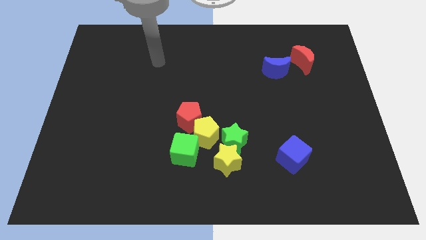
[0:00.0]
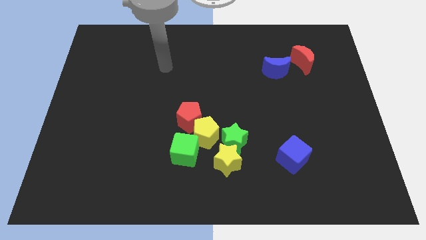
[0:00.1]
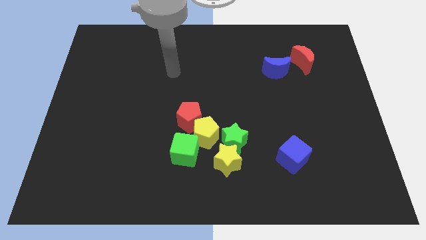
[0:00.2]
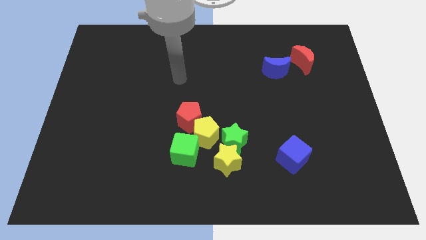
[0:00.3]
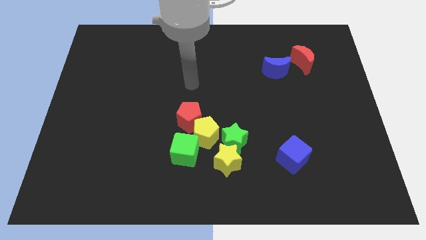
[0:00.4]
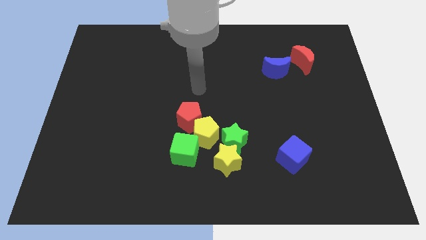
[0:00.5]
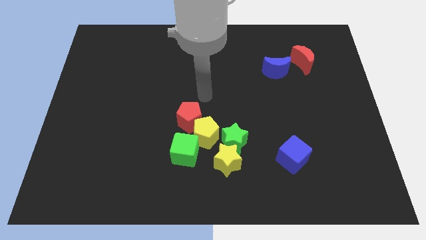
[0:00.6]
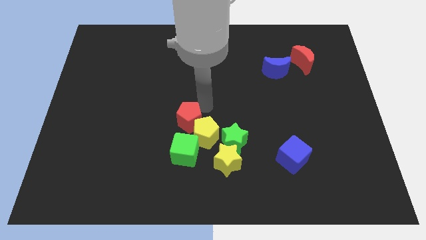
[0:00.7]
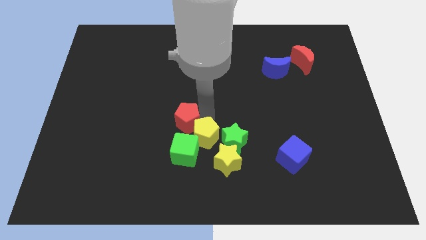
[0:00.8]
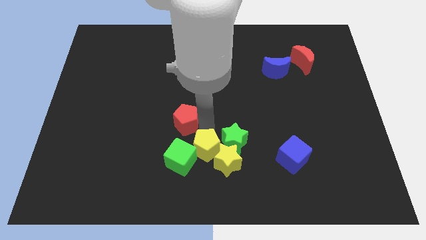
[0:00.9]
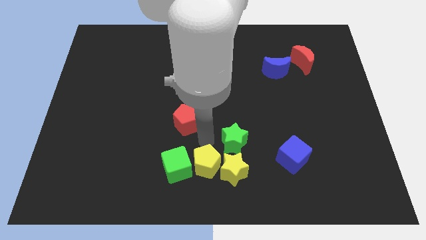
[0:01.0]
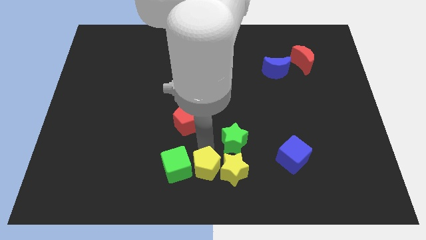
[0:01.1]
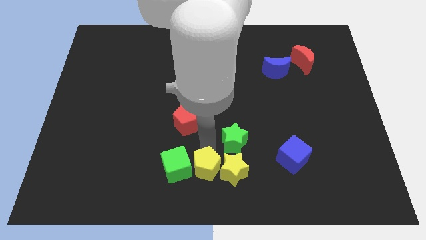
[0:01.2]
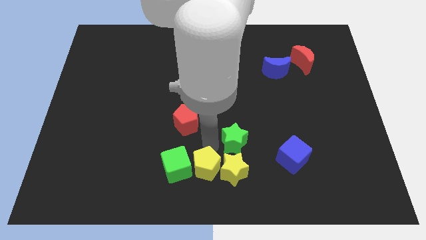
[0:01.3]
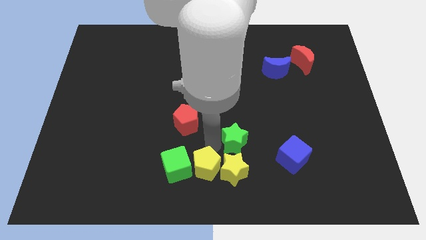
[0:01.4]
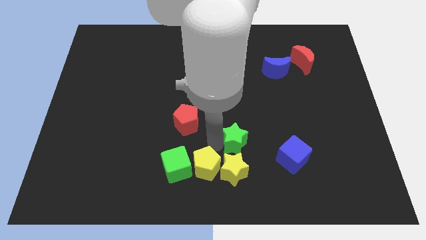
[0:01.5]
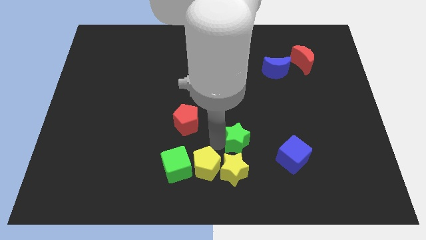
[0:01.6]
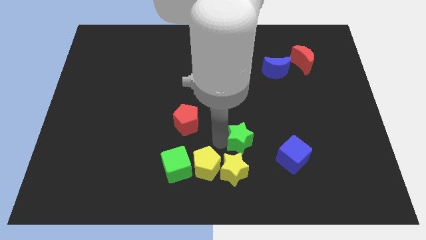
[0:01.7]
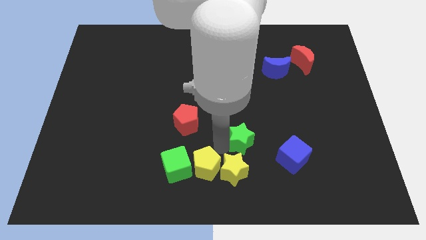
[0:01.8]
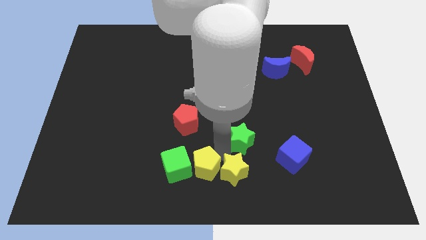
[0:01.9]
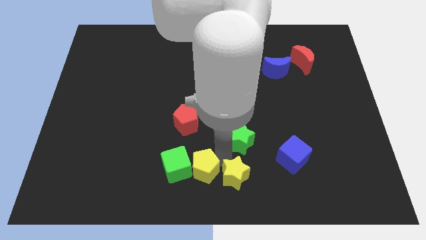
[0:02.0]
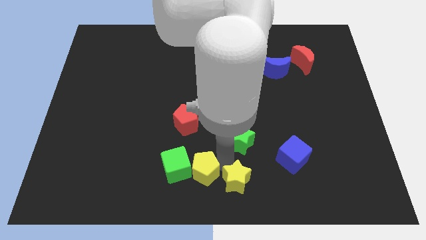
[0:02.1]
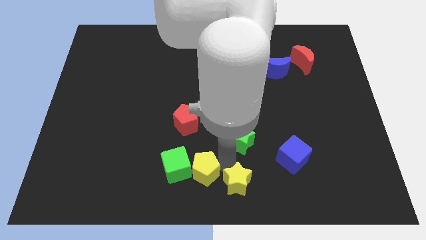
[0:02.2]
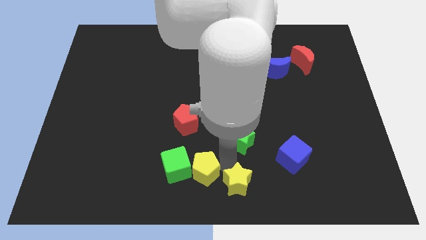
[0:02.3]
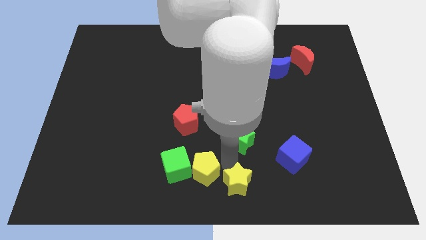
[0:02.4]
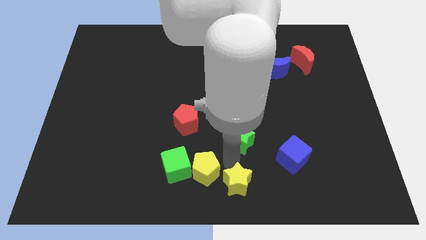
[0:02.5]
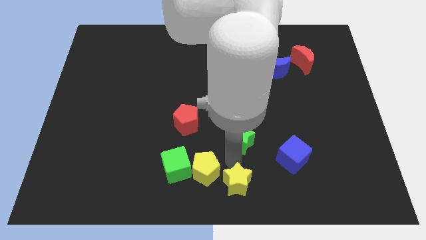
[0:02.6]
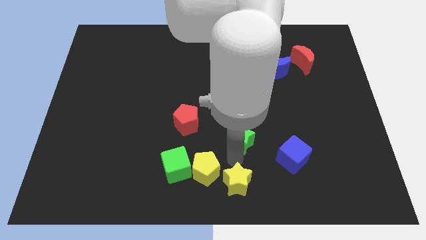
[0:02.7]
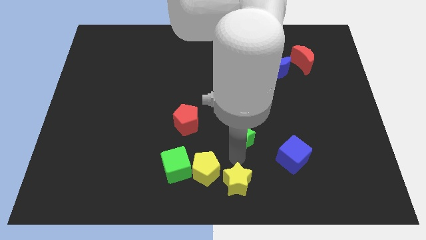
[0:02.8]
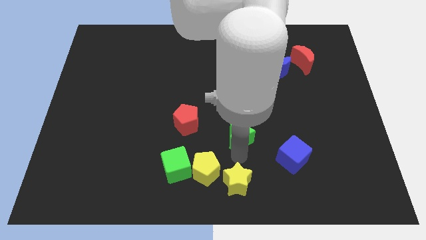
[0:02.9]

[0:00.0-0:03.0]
move the green star away from the yellow star and yellow pentagon

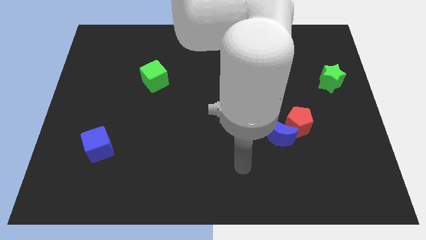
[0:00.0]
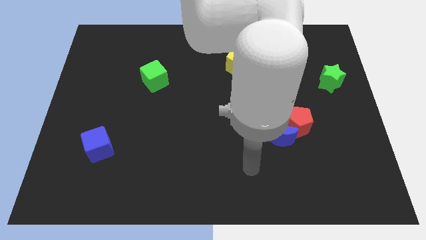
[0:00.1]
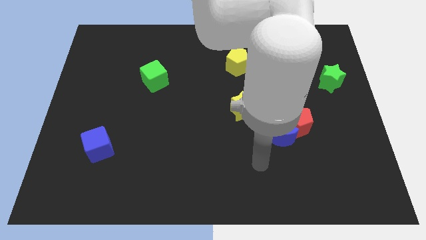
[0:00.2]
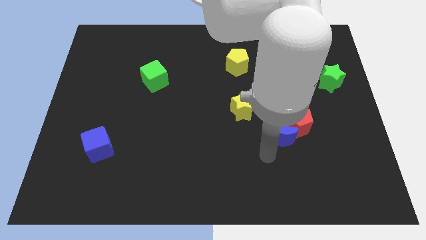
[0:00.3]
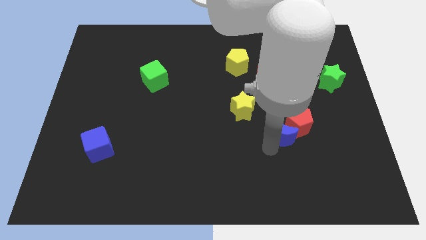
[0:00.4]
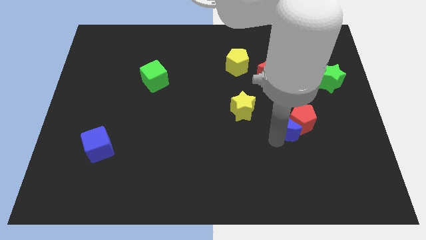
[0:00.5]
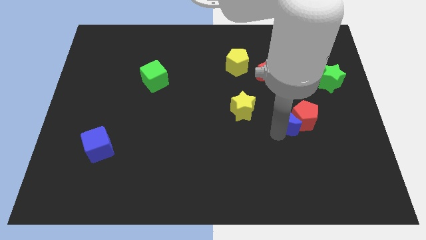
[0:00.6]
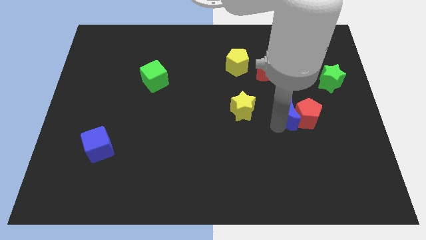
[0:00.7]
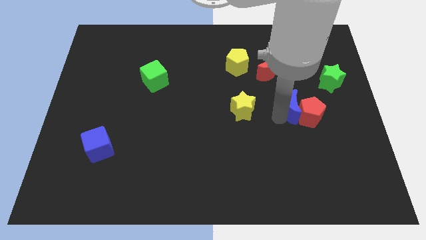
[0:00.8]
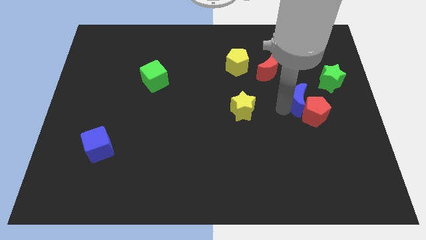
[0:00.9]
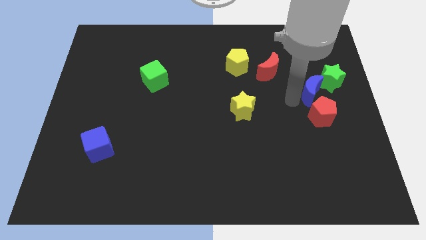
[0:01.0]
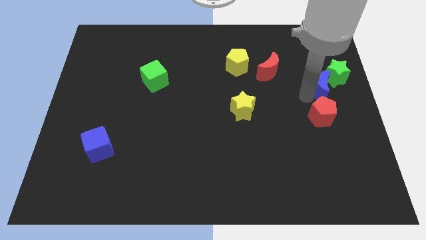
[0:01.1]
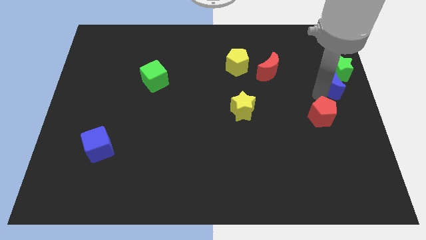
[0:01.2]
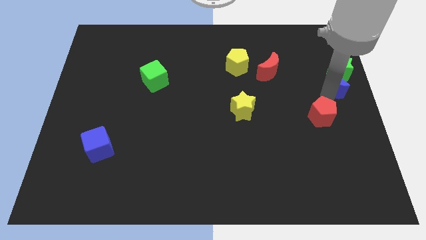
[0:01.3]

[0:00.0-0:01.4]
pull the red pentagon apart from the blue moon

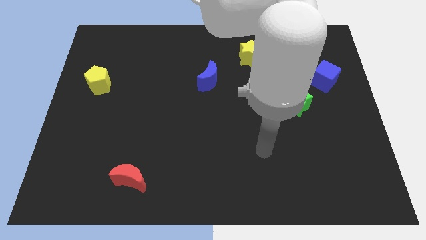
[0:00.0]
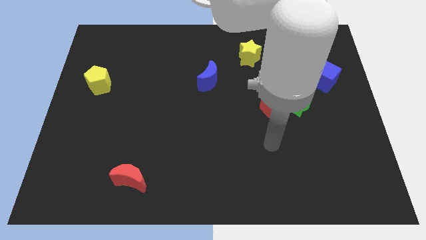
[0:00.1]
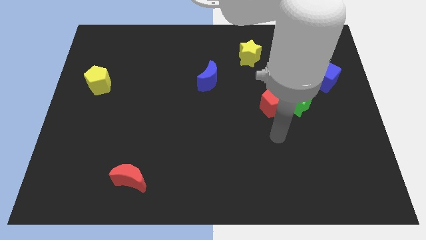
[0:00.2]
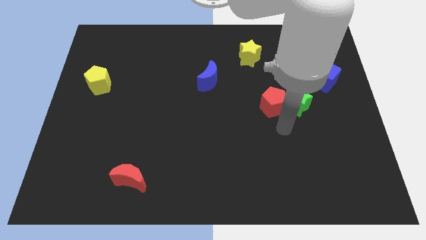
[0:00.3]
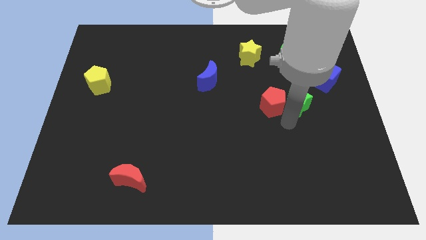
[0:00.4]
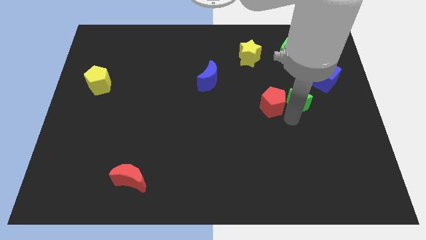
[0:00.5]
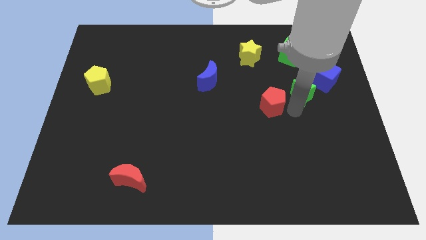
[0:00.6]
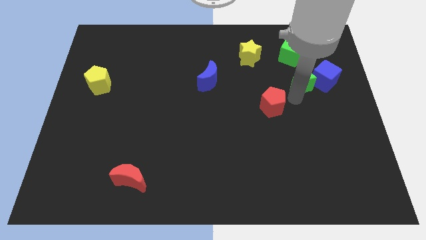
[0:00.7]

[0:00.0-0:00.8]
separate the red pentagon from the green star

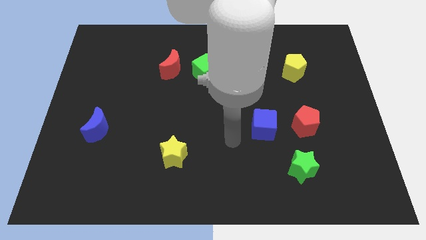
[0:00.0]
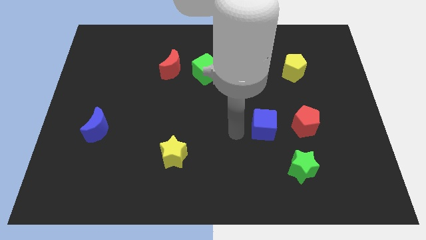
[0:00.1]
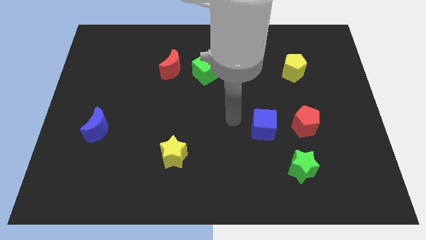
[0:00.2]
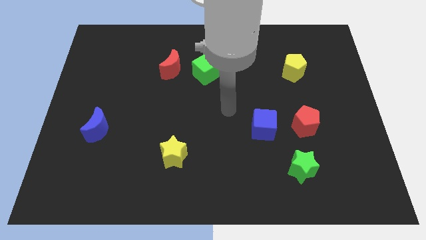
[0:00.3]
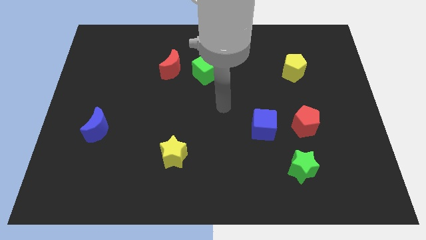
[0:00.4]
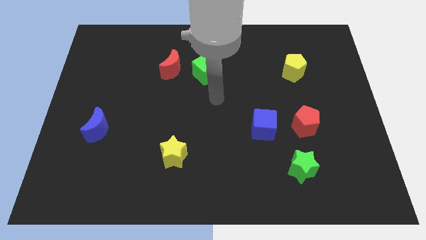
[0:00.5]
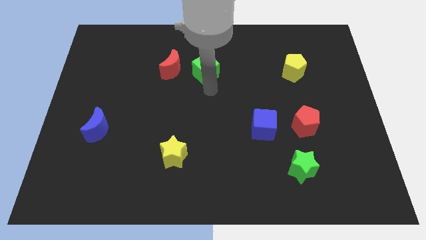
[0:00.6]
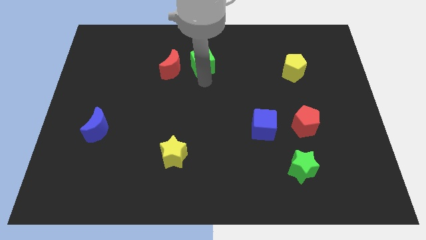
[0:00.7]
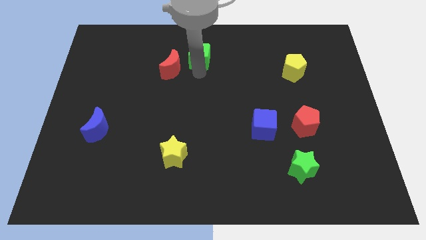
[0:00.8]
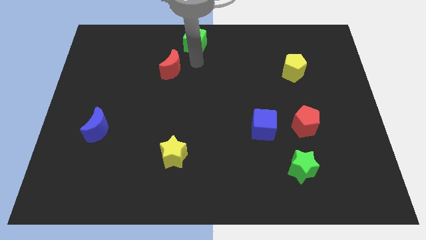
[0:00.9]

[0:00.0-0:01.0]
move the red moon away from the green cube

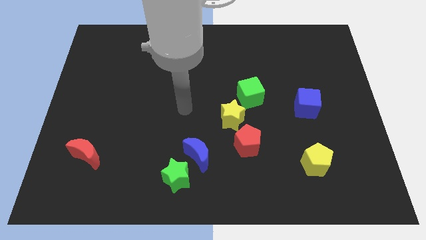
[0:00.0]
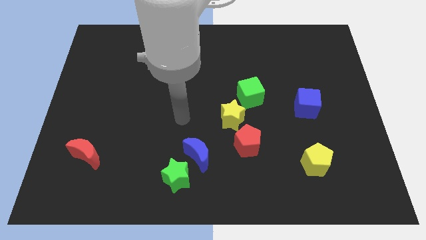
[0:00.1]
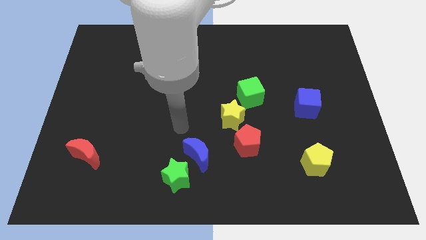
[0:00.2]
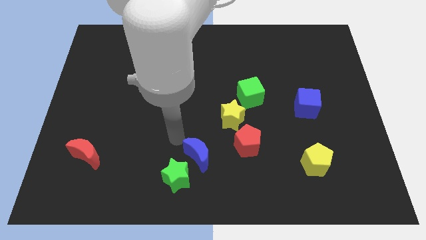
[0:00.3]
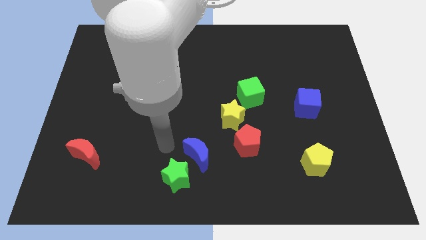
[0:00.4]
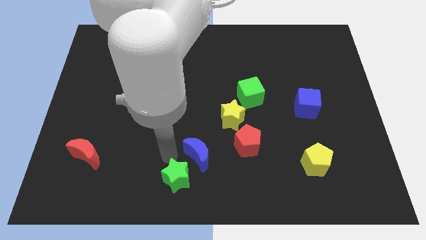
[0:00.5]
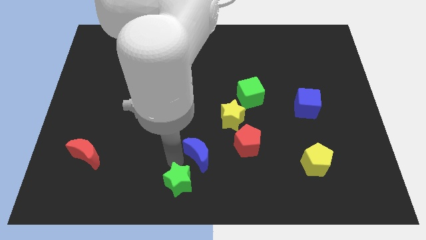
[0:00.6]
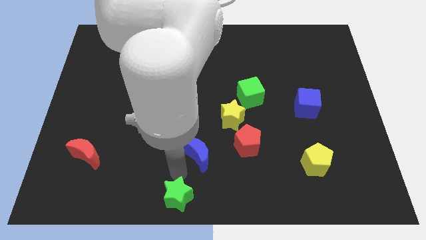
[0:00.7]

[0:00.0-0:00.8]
separate the blue moon from the green star

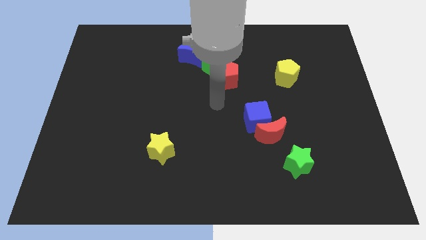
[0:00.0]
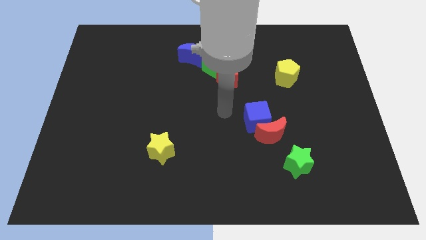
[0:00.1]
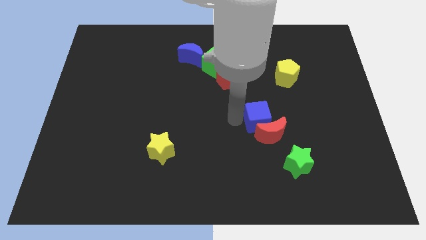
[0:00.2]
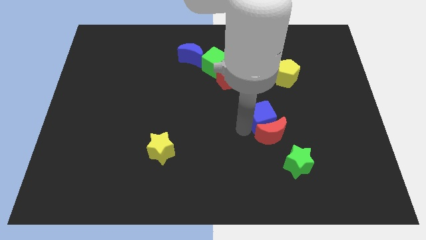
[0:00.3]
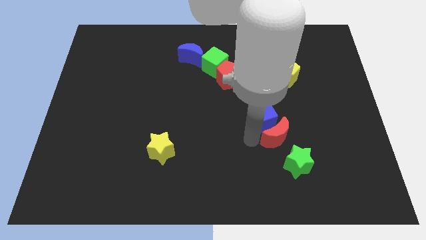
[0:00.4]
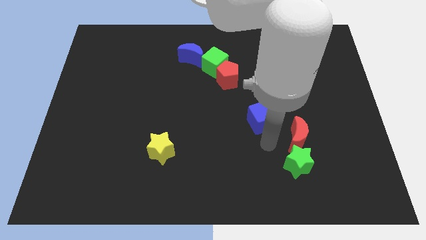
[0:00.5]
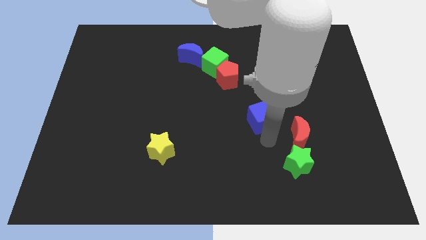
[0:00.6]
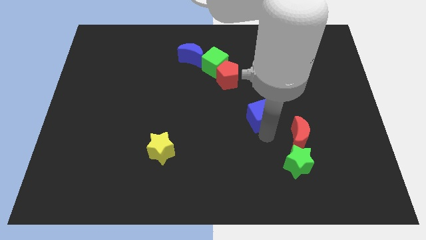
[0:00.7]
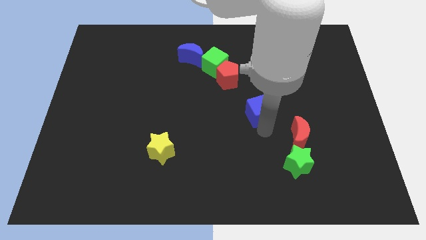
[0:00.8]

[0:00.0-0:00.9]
separate the blue cube from the red moon

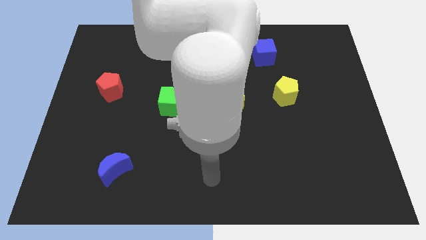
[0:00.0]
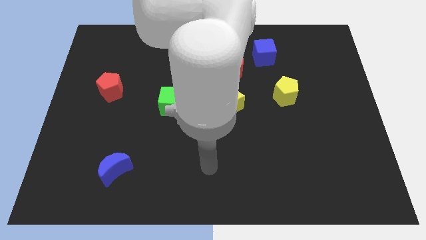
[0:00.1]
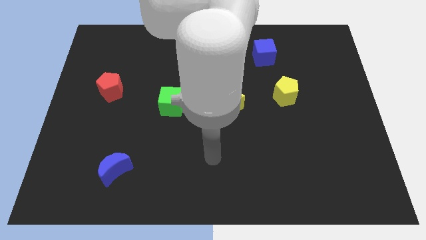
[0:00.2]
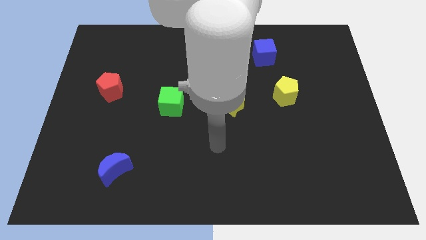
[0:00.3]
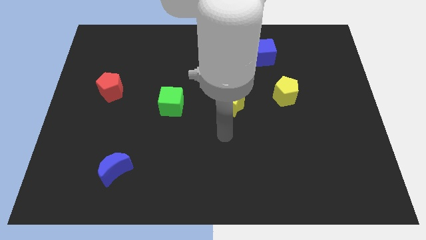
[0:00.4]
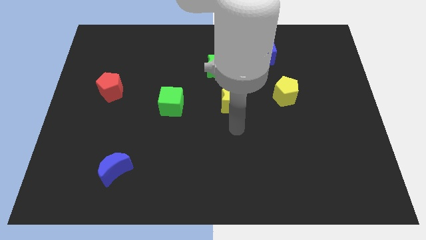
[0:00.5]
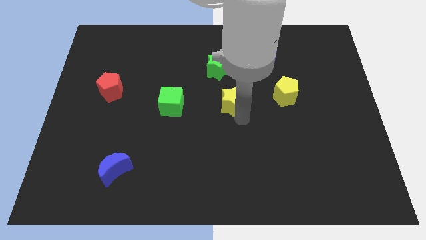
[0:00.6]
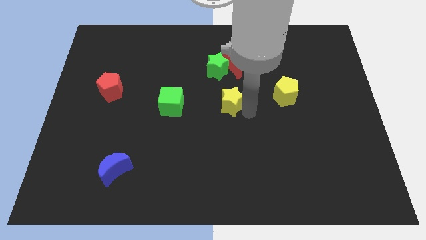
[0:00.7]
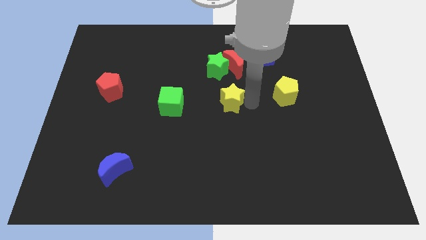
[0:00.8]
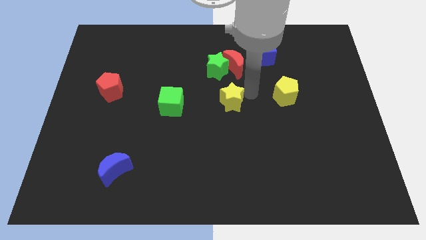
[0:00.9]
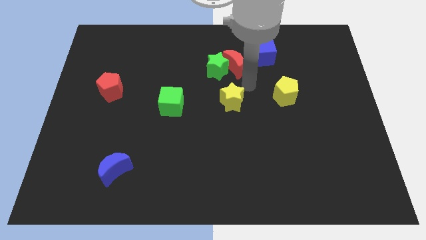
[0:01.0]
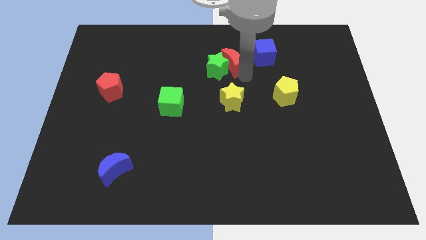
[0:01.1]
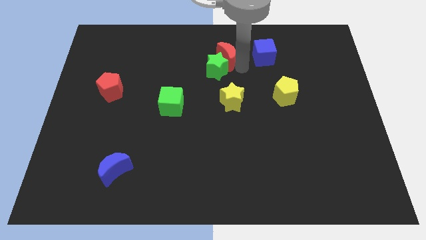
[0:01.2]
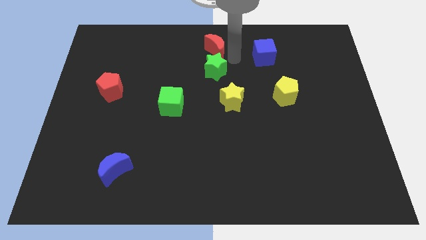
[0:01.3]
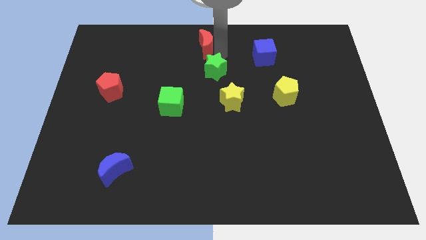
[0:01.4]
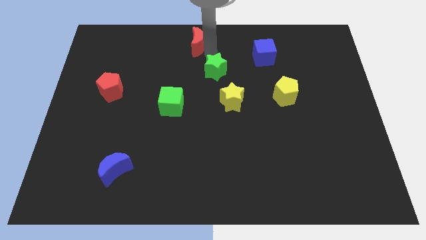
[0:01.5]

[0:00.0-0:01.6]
separate the green star from the red moon
